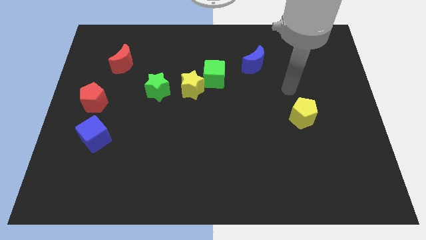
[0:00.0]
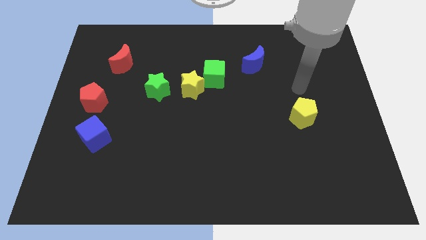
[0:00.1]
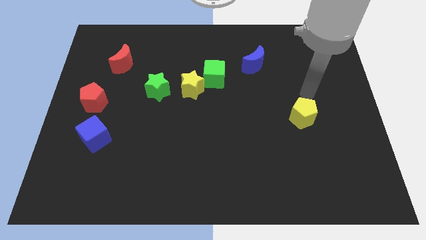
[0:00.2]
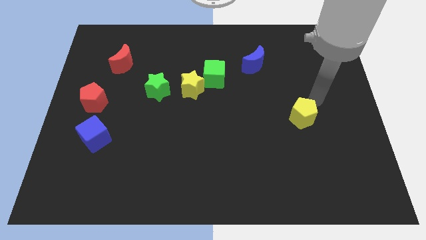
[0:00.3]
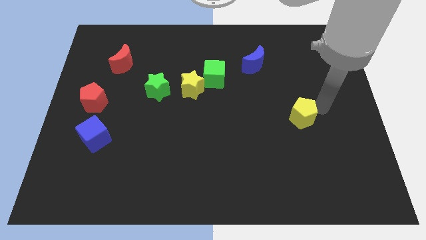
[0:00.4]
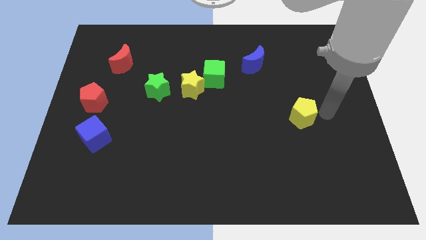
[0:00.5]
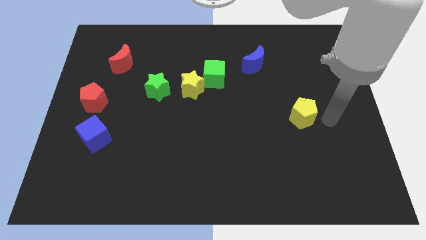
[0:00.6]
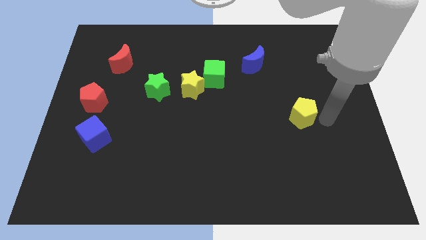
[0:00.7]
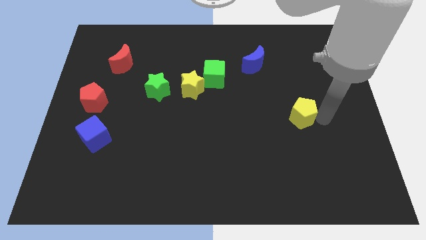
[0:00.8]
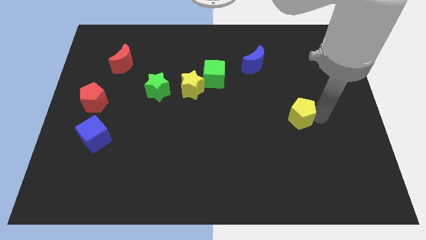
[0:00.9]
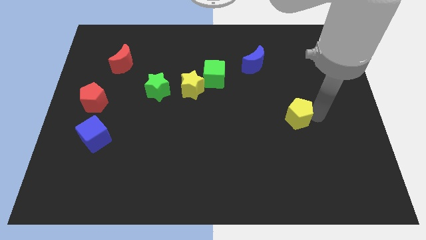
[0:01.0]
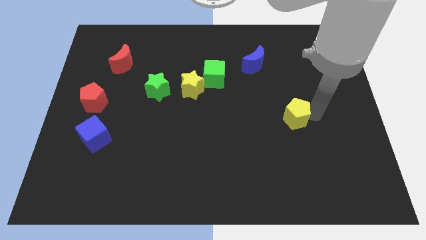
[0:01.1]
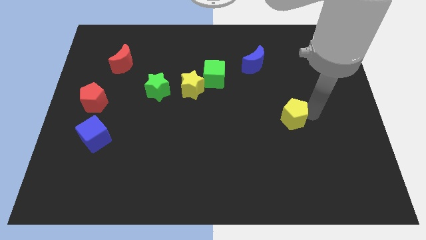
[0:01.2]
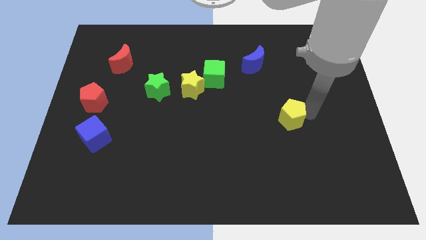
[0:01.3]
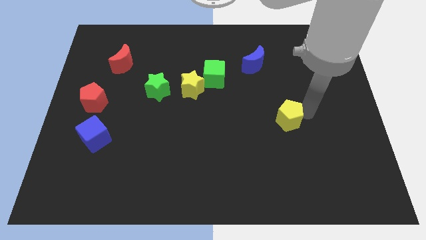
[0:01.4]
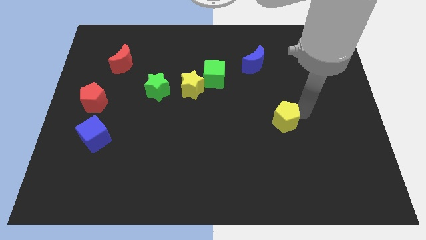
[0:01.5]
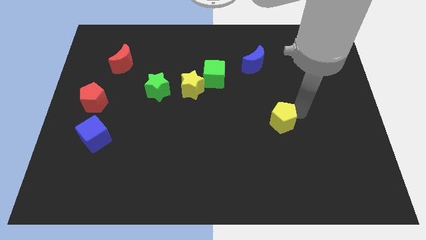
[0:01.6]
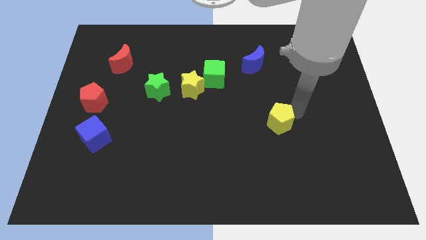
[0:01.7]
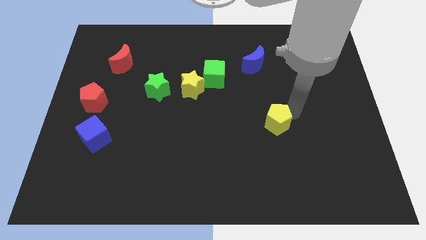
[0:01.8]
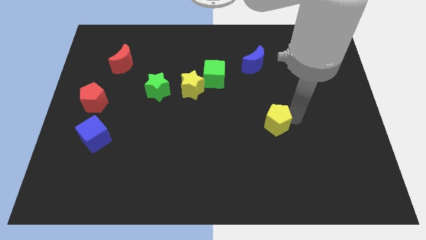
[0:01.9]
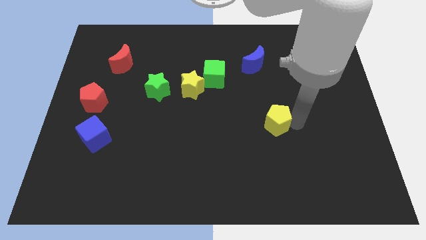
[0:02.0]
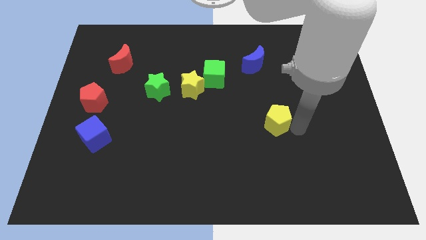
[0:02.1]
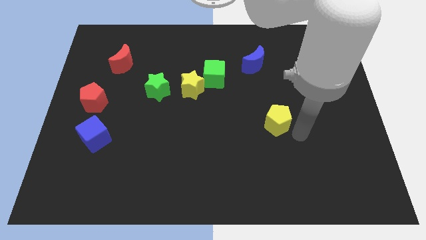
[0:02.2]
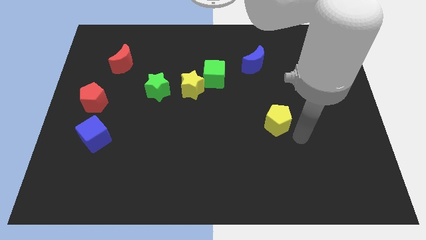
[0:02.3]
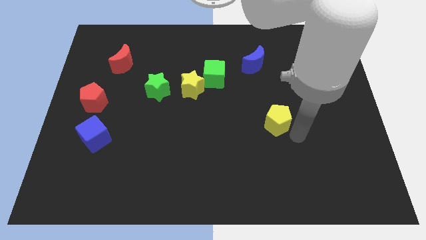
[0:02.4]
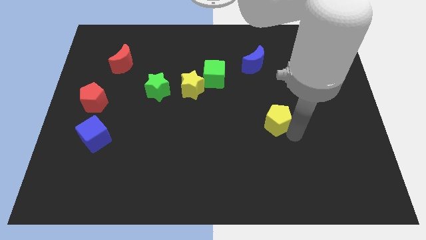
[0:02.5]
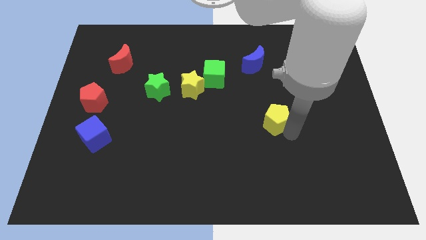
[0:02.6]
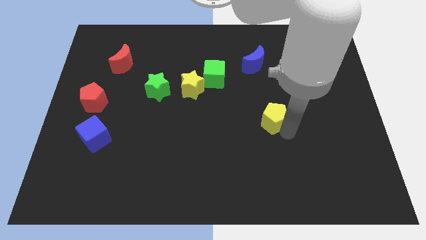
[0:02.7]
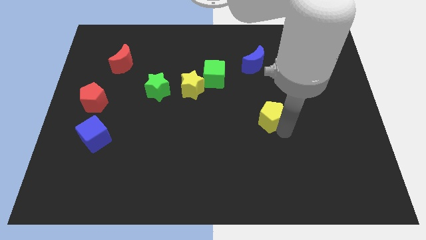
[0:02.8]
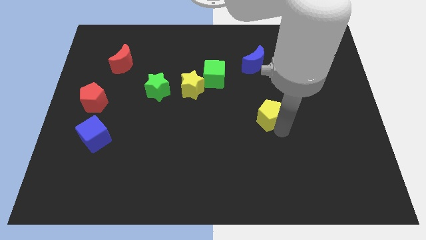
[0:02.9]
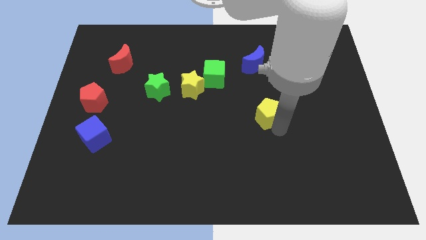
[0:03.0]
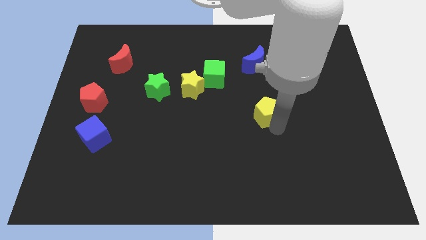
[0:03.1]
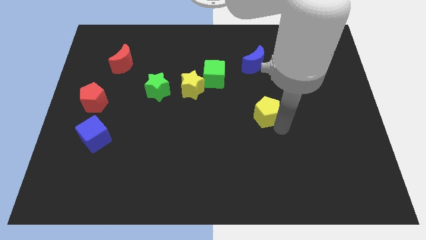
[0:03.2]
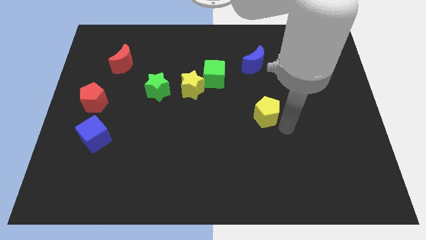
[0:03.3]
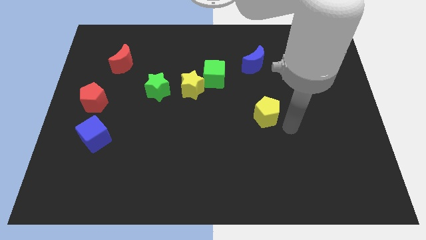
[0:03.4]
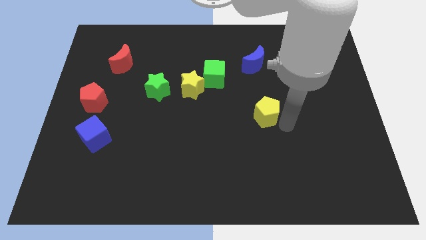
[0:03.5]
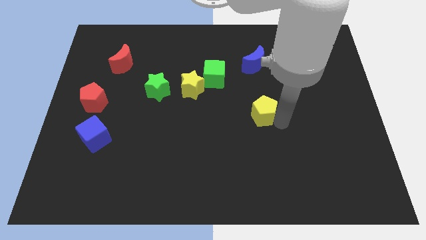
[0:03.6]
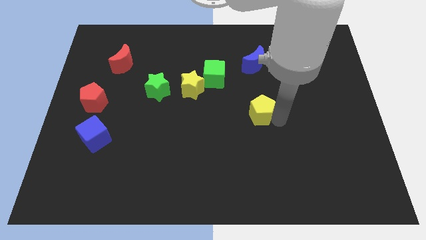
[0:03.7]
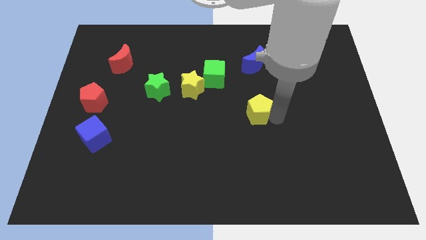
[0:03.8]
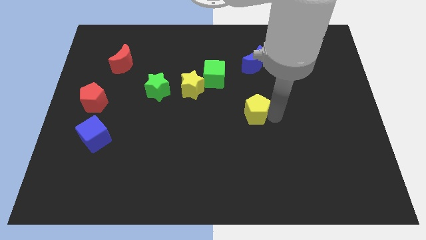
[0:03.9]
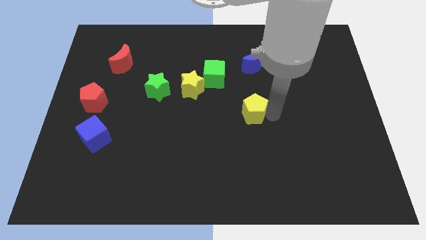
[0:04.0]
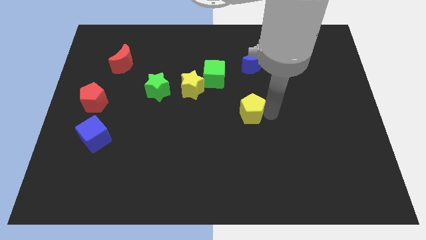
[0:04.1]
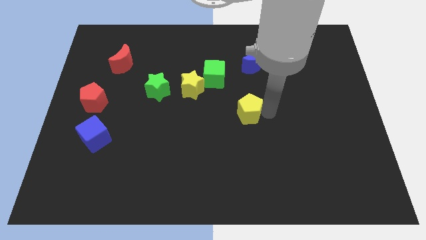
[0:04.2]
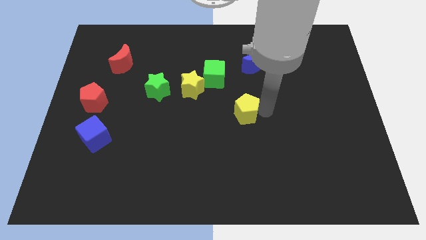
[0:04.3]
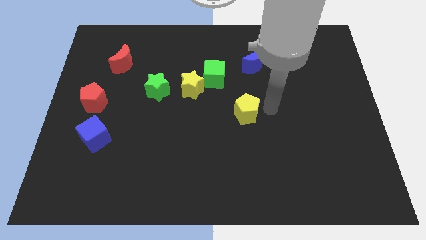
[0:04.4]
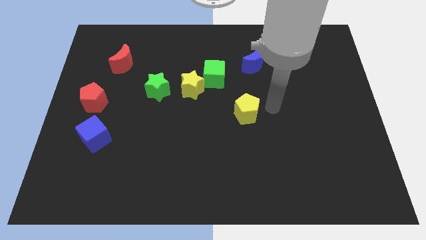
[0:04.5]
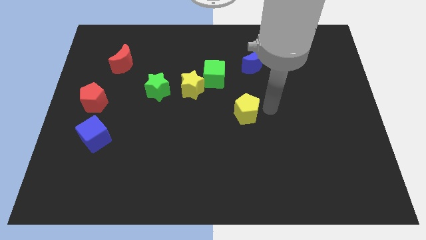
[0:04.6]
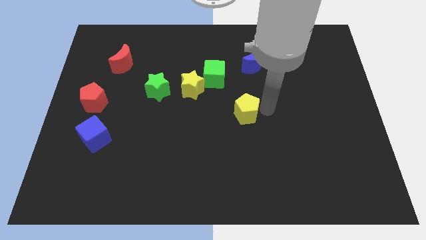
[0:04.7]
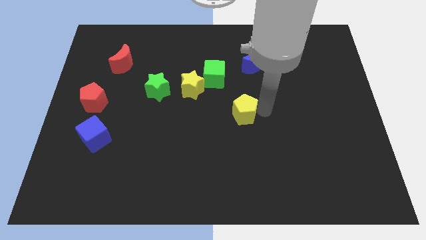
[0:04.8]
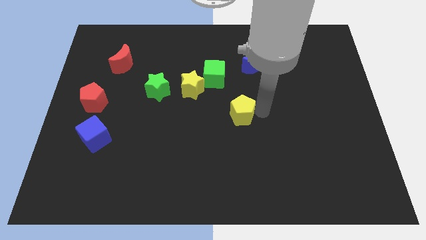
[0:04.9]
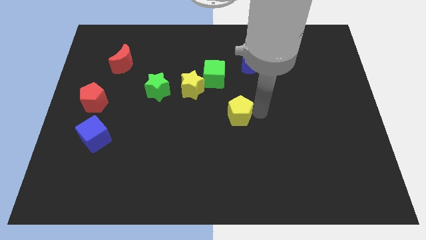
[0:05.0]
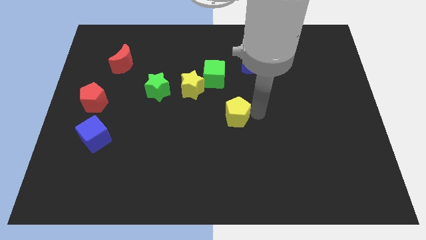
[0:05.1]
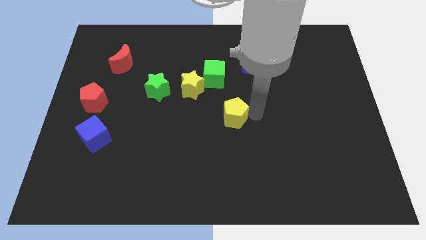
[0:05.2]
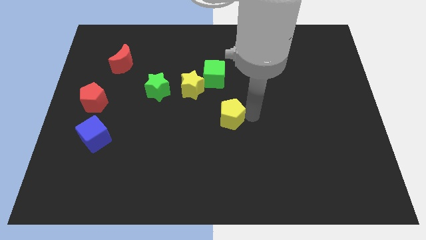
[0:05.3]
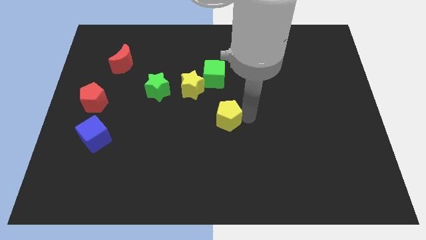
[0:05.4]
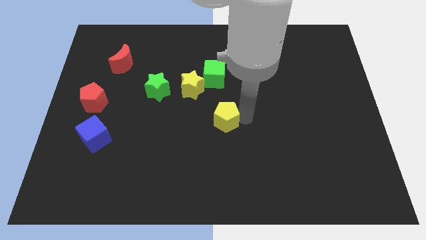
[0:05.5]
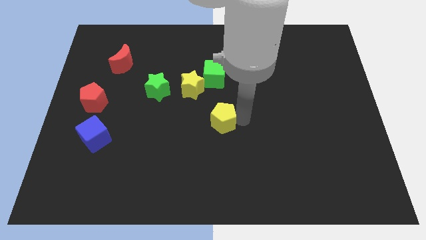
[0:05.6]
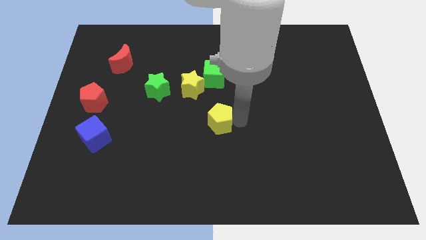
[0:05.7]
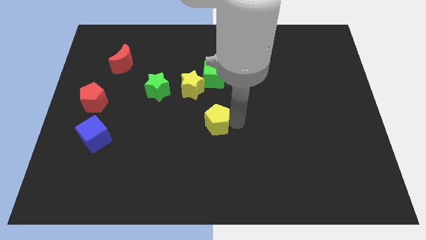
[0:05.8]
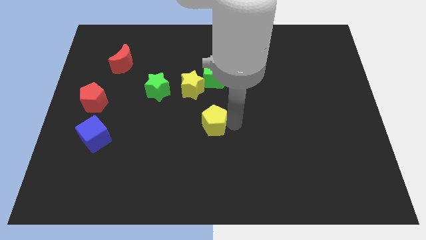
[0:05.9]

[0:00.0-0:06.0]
push the yellow pentagon to the left

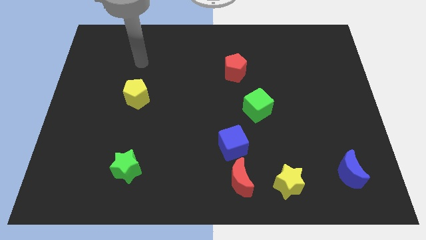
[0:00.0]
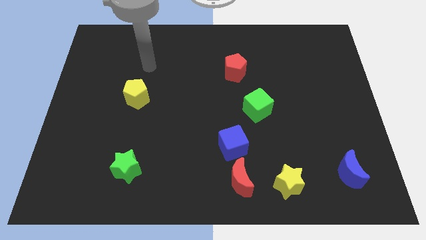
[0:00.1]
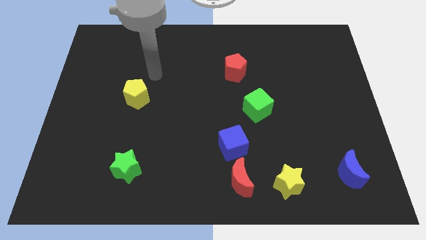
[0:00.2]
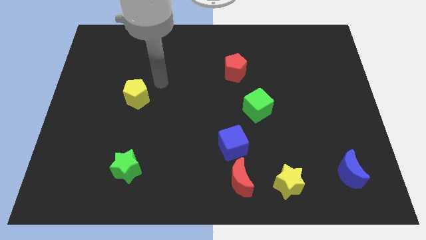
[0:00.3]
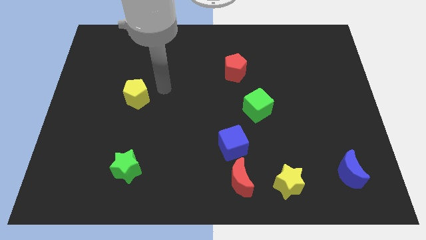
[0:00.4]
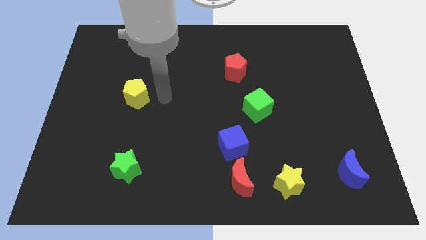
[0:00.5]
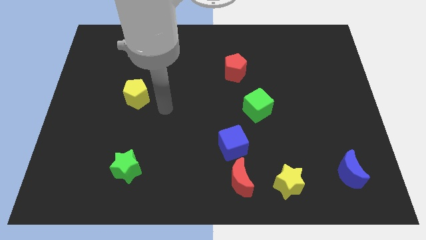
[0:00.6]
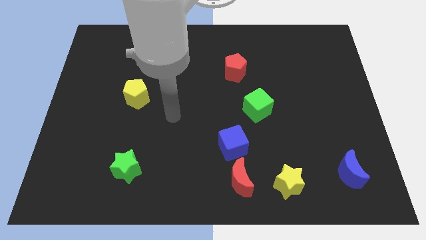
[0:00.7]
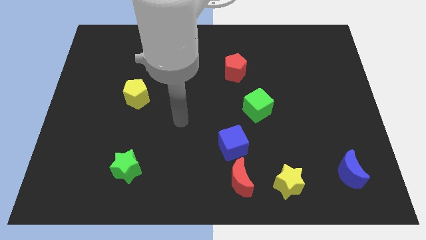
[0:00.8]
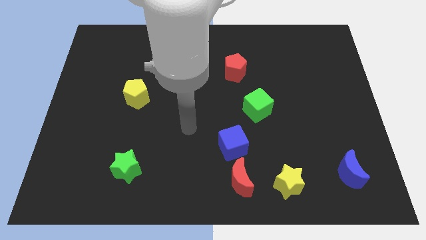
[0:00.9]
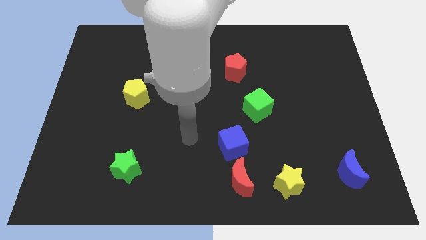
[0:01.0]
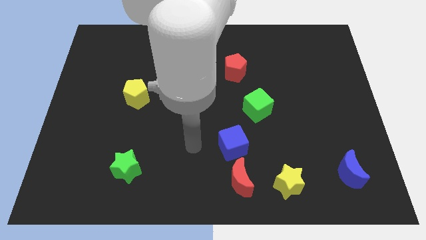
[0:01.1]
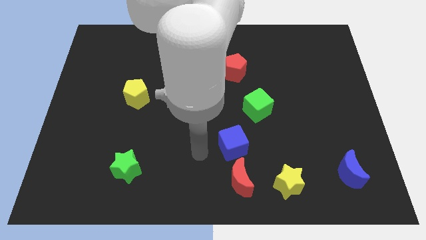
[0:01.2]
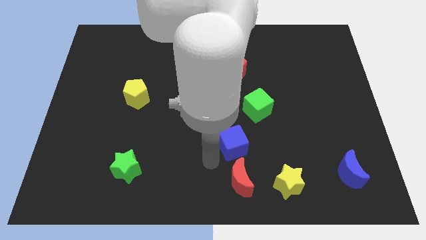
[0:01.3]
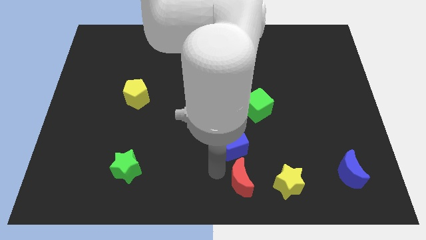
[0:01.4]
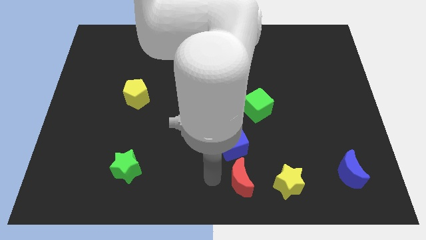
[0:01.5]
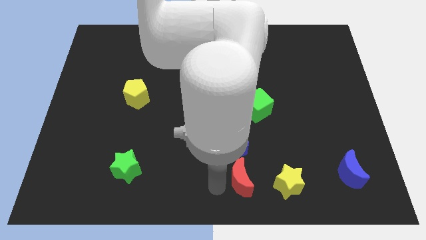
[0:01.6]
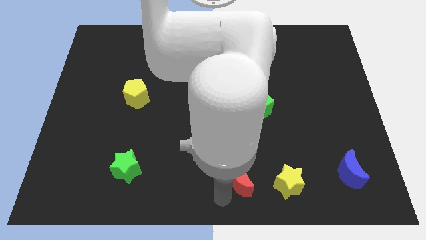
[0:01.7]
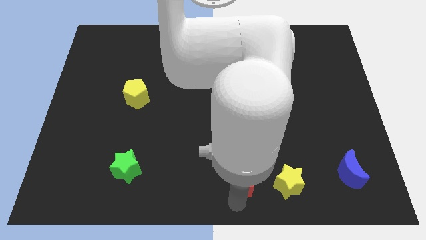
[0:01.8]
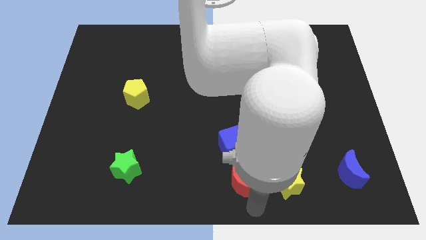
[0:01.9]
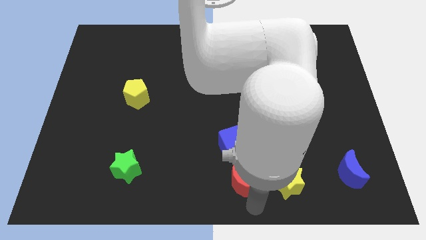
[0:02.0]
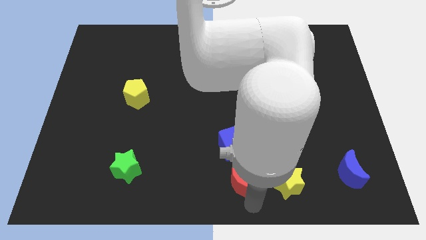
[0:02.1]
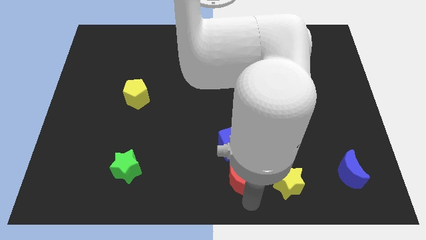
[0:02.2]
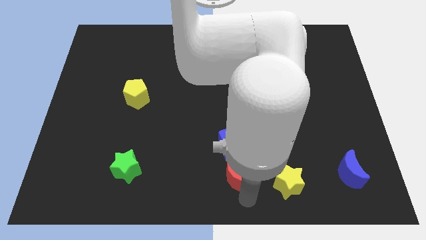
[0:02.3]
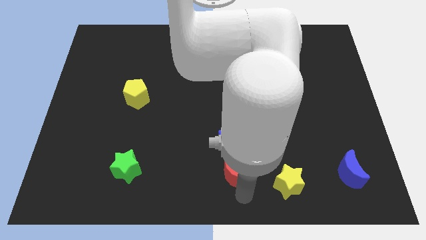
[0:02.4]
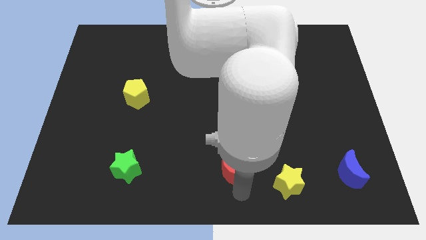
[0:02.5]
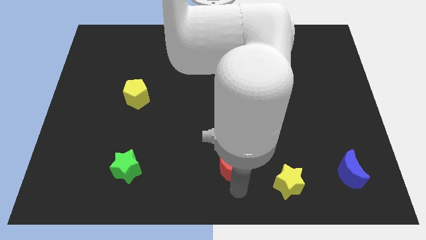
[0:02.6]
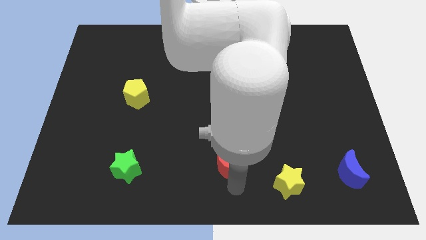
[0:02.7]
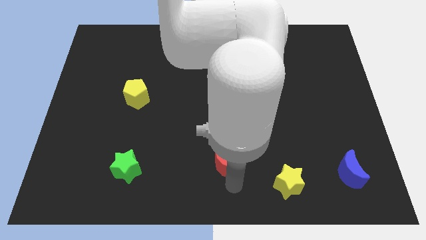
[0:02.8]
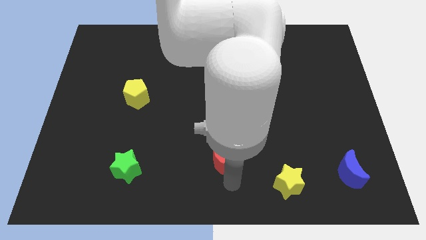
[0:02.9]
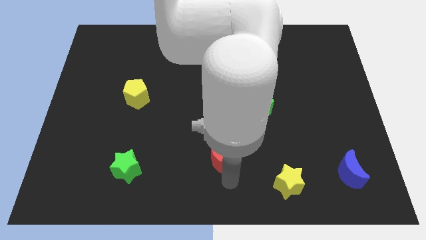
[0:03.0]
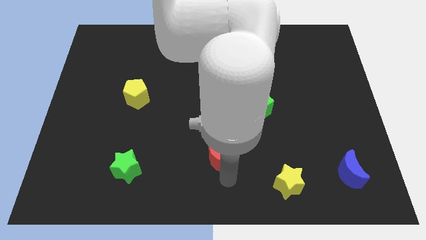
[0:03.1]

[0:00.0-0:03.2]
move the red moon a little diagonally upwards and left
